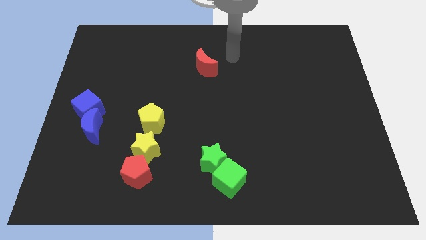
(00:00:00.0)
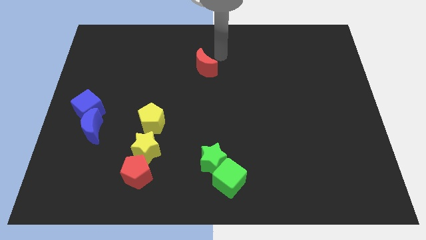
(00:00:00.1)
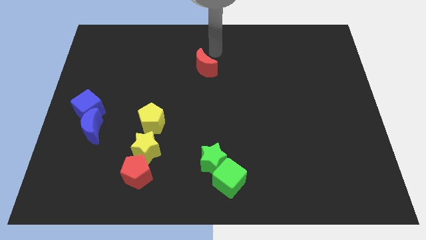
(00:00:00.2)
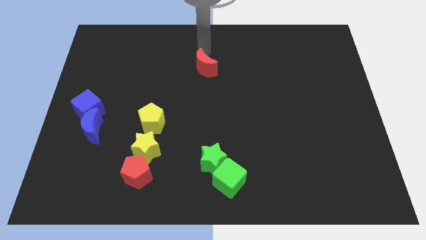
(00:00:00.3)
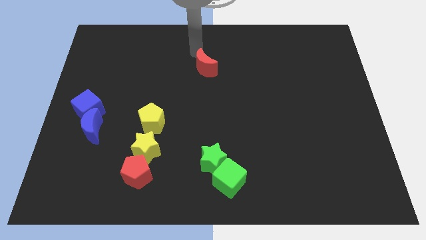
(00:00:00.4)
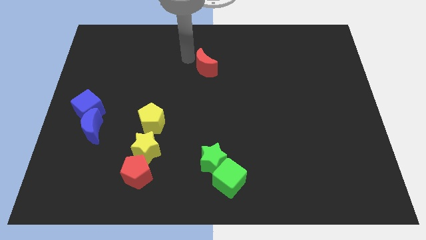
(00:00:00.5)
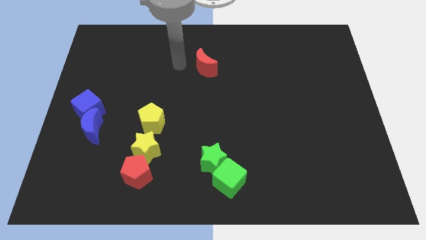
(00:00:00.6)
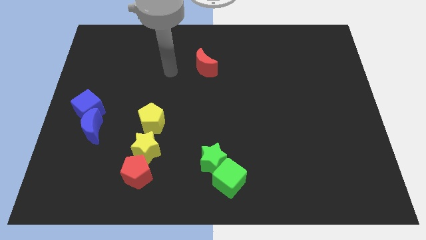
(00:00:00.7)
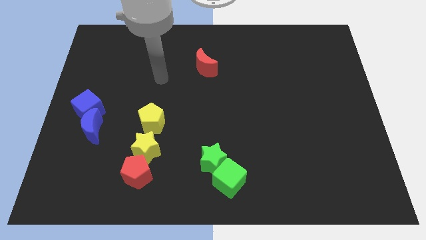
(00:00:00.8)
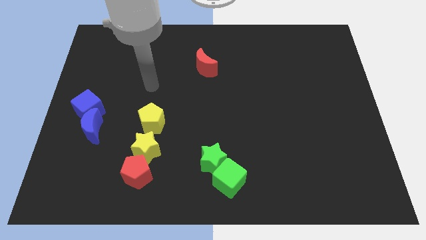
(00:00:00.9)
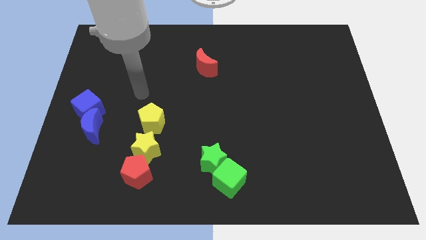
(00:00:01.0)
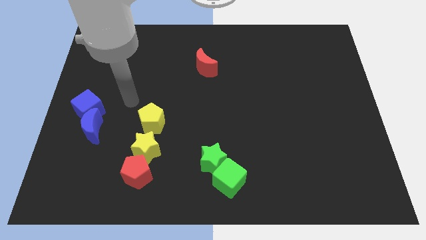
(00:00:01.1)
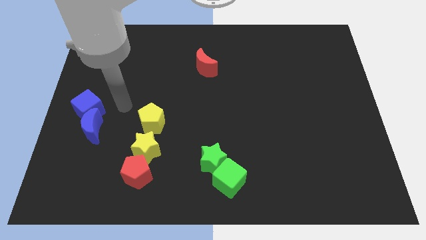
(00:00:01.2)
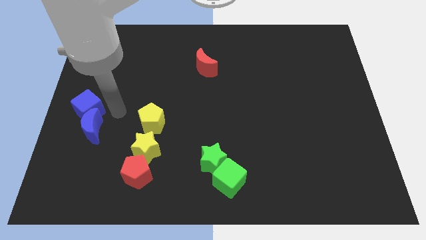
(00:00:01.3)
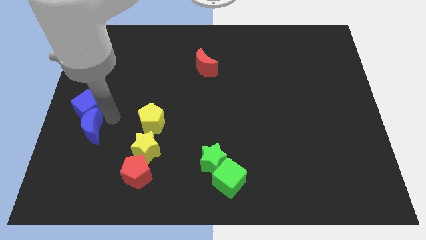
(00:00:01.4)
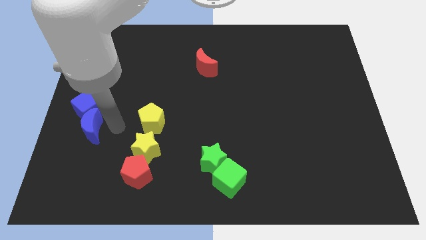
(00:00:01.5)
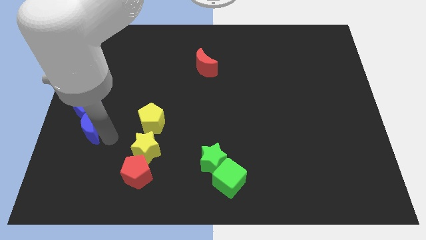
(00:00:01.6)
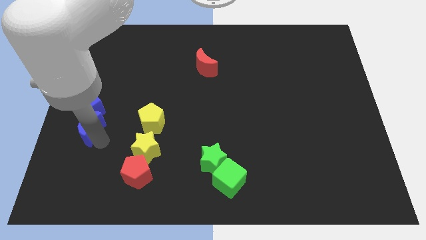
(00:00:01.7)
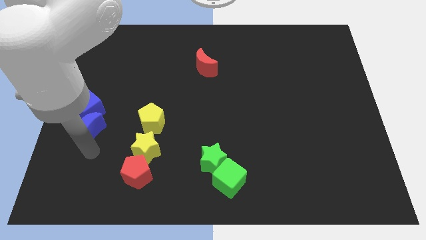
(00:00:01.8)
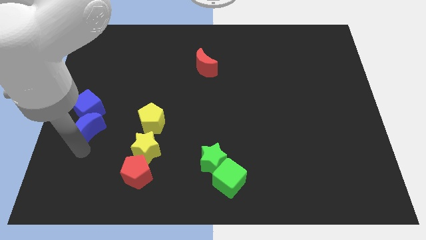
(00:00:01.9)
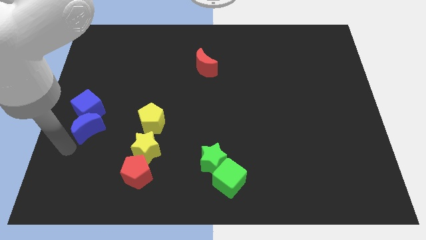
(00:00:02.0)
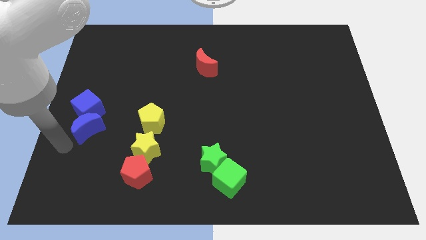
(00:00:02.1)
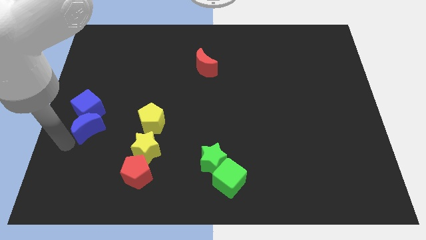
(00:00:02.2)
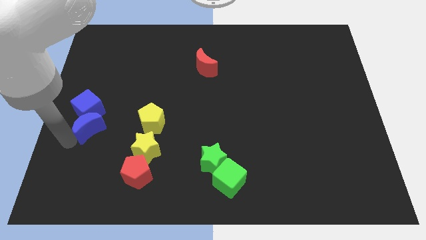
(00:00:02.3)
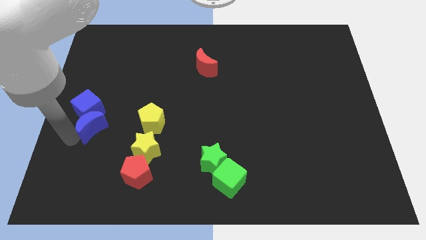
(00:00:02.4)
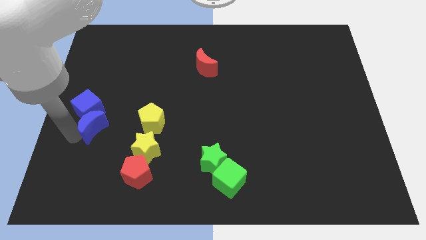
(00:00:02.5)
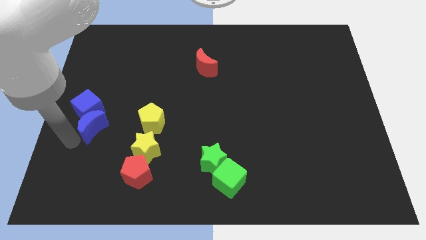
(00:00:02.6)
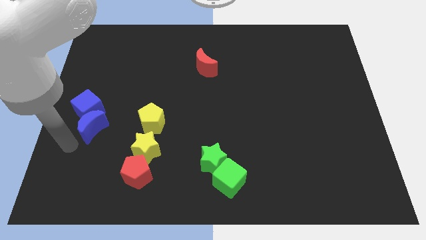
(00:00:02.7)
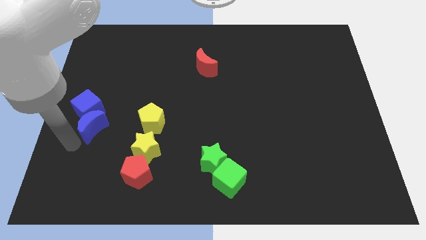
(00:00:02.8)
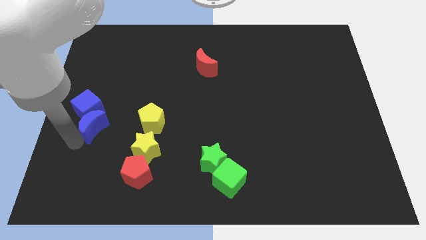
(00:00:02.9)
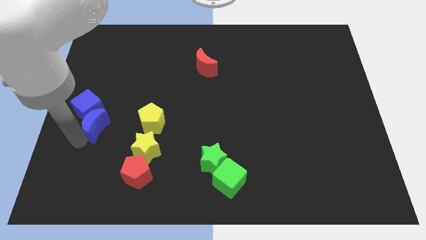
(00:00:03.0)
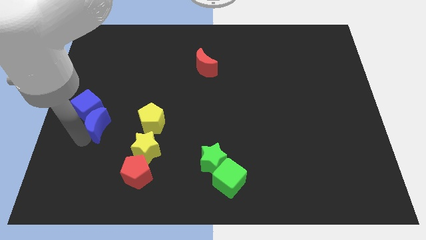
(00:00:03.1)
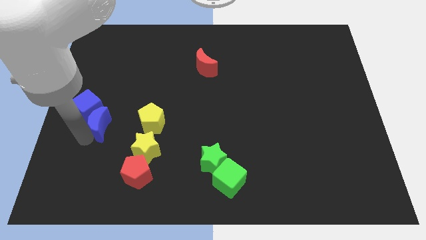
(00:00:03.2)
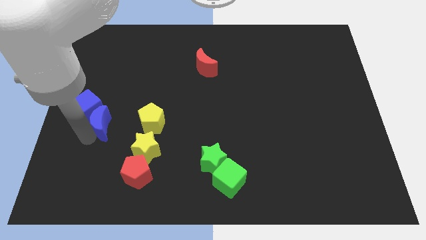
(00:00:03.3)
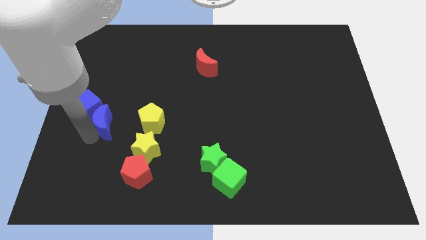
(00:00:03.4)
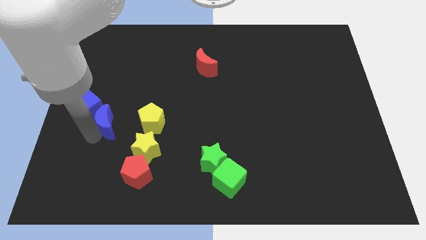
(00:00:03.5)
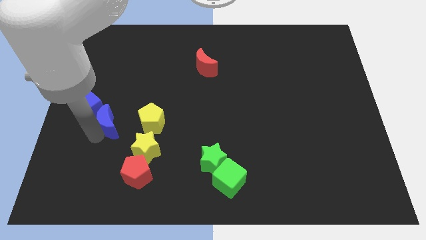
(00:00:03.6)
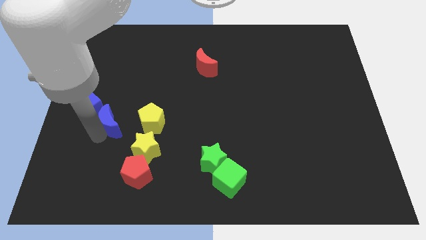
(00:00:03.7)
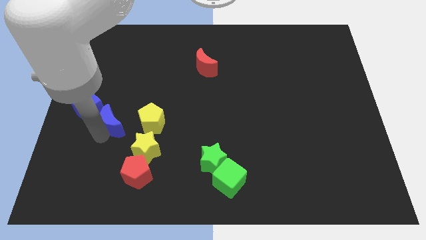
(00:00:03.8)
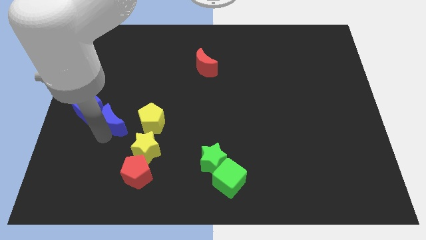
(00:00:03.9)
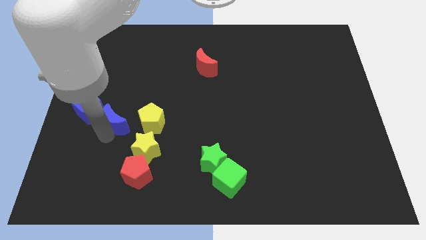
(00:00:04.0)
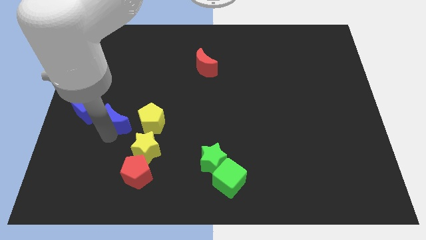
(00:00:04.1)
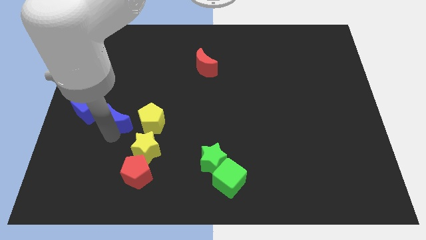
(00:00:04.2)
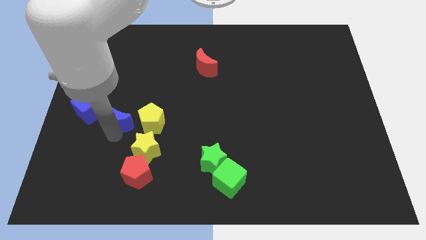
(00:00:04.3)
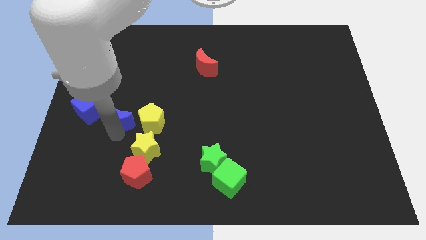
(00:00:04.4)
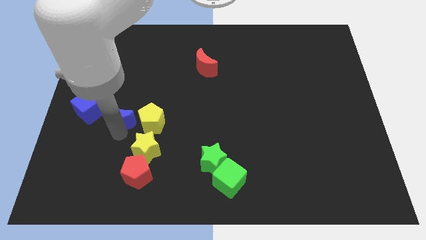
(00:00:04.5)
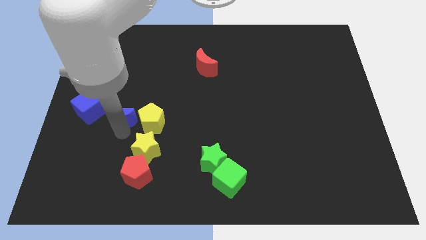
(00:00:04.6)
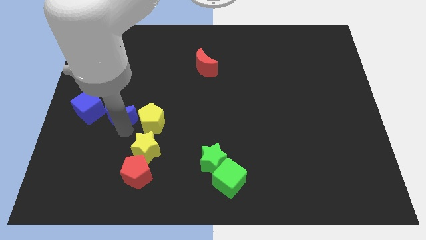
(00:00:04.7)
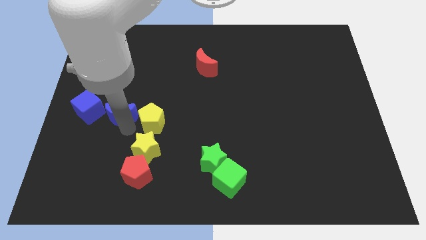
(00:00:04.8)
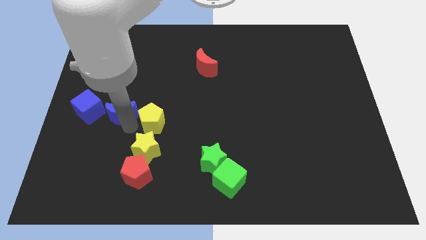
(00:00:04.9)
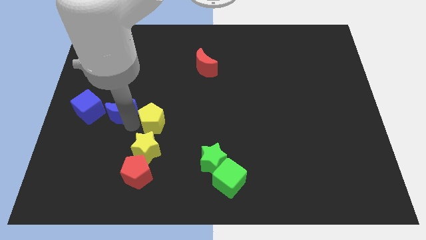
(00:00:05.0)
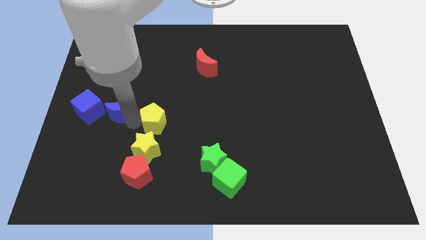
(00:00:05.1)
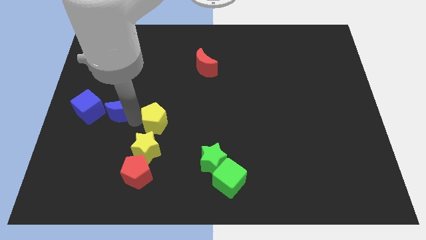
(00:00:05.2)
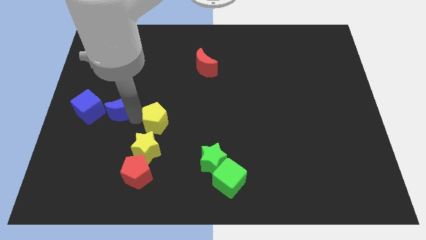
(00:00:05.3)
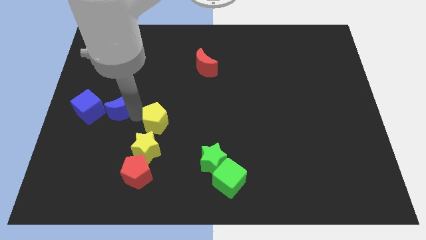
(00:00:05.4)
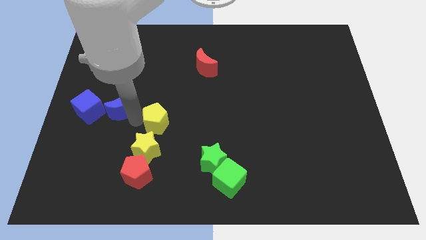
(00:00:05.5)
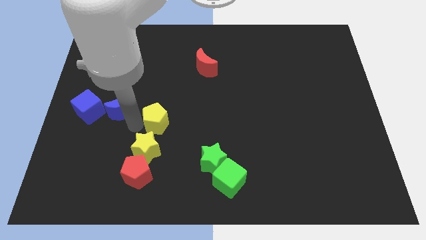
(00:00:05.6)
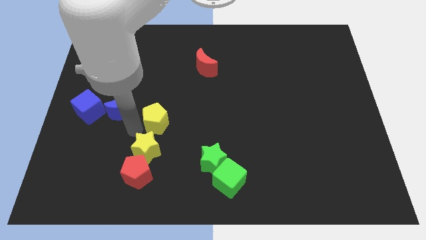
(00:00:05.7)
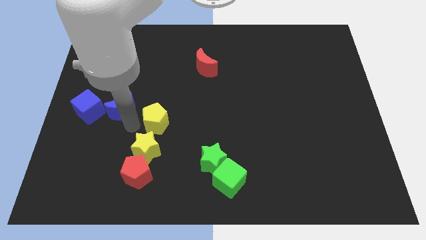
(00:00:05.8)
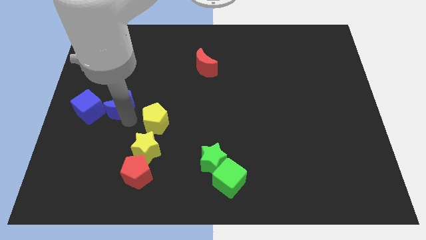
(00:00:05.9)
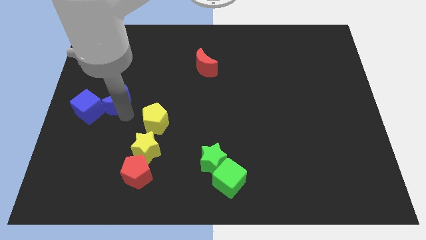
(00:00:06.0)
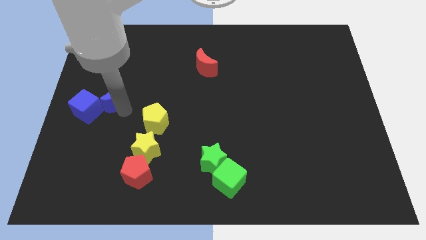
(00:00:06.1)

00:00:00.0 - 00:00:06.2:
move the blue moon up somewhat

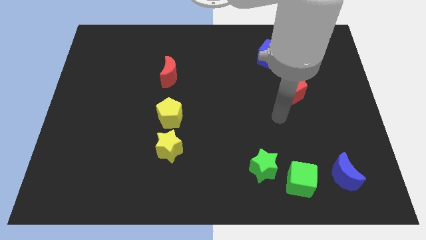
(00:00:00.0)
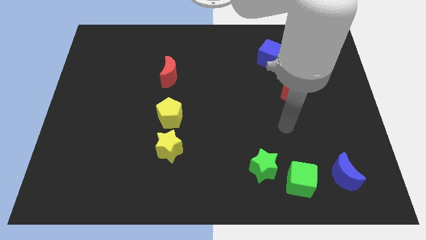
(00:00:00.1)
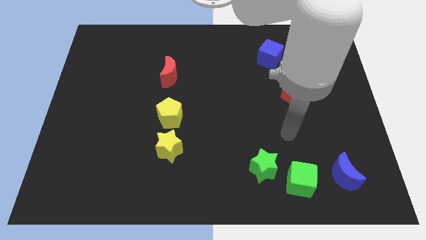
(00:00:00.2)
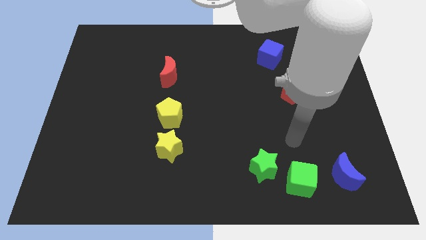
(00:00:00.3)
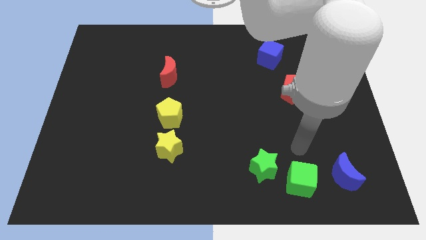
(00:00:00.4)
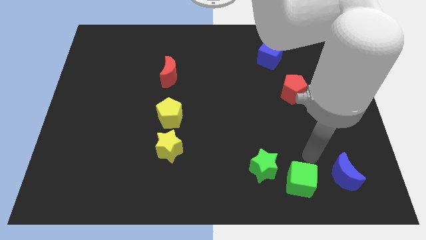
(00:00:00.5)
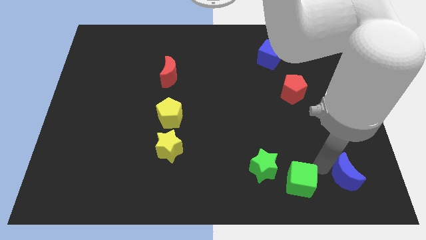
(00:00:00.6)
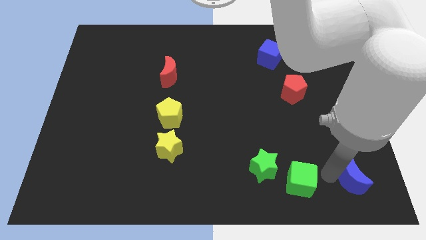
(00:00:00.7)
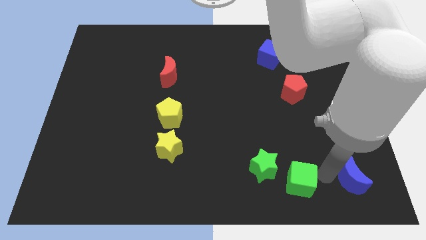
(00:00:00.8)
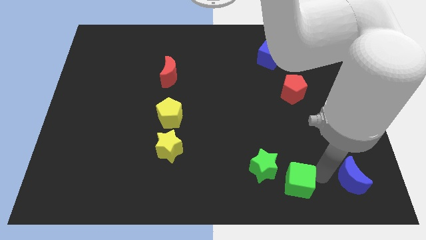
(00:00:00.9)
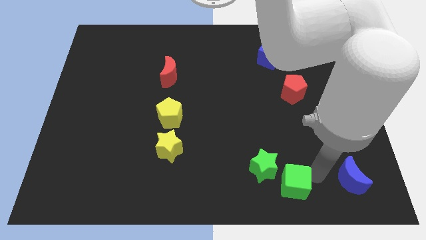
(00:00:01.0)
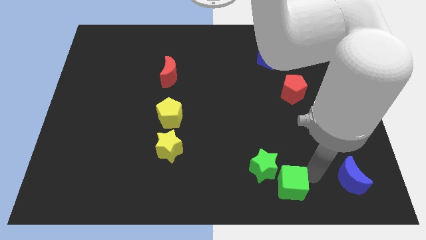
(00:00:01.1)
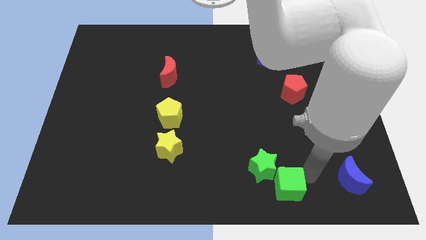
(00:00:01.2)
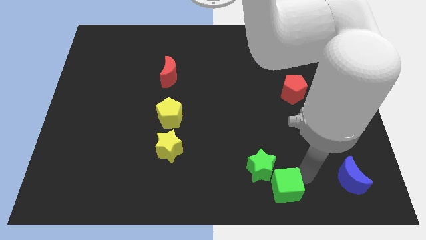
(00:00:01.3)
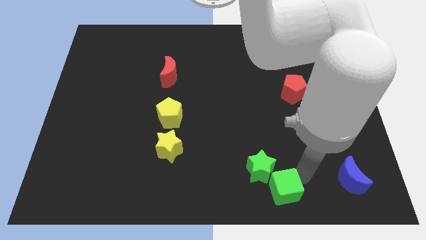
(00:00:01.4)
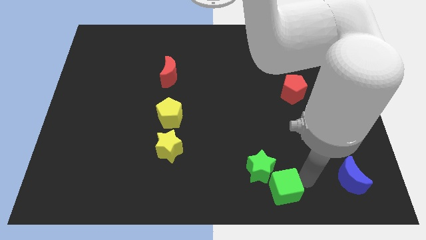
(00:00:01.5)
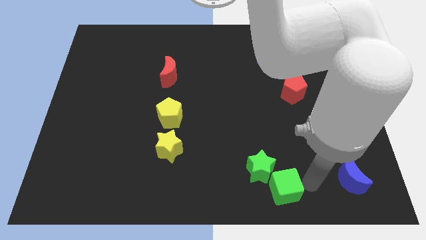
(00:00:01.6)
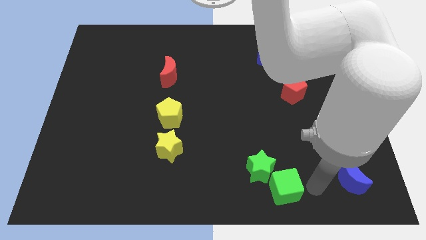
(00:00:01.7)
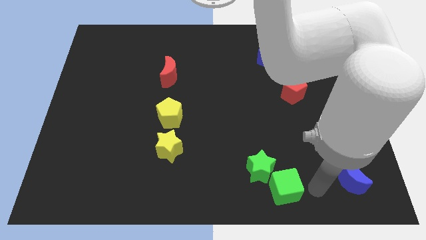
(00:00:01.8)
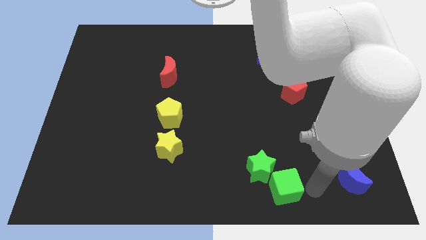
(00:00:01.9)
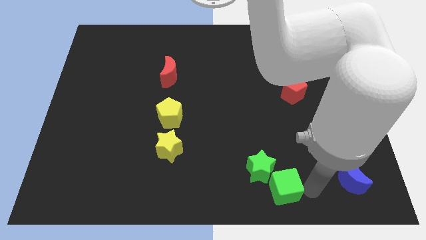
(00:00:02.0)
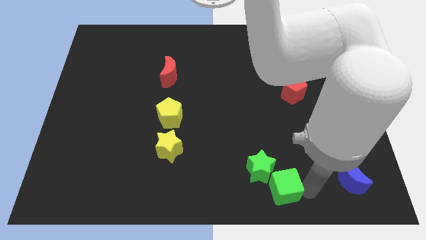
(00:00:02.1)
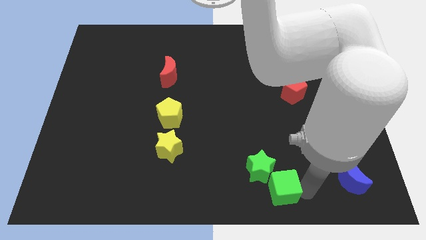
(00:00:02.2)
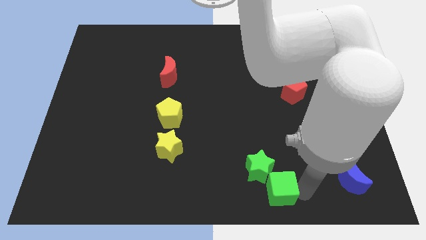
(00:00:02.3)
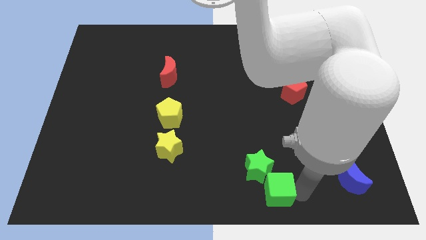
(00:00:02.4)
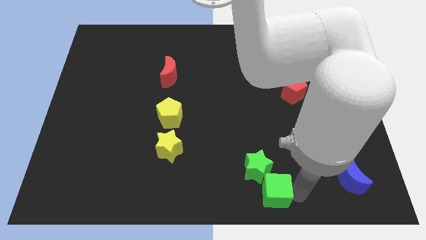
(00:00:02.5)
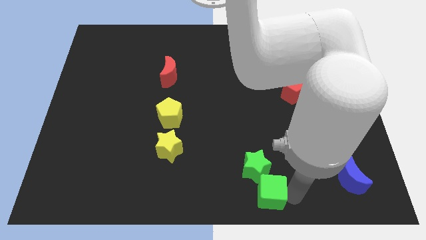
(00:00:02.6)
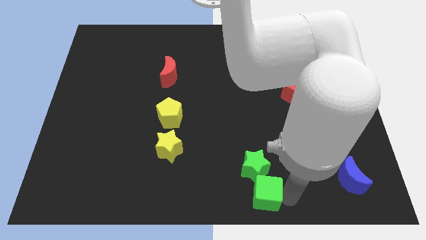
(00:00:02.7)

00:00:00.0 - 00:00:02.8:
slightly move the green cube left
